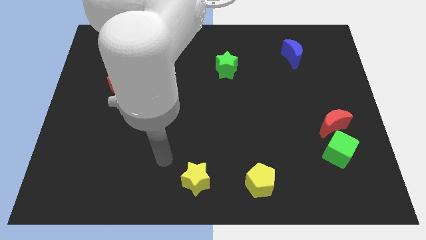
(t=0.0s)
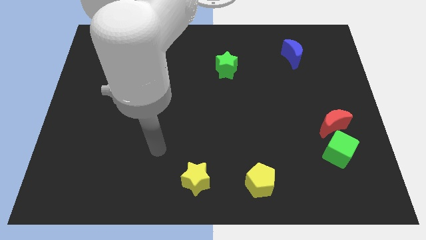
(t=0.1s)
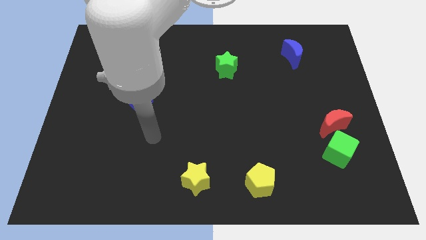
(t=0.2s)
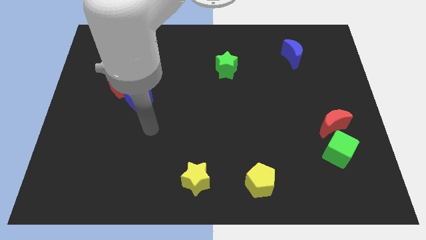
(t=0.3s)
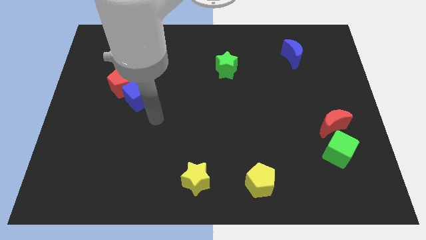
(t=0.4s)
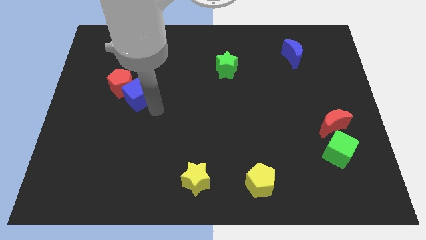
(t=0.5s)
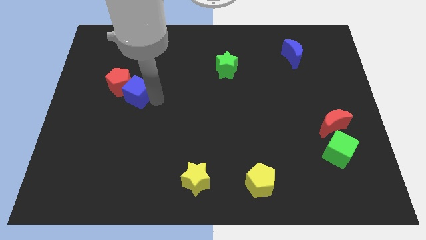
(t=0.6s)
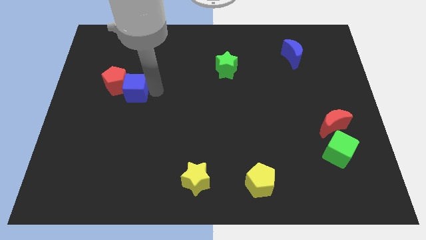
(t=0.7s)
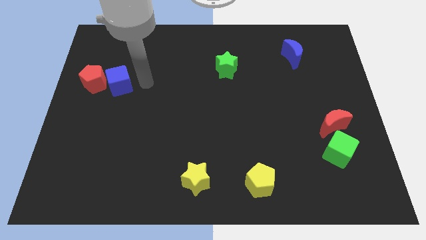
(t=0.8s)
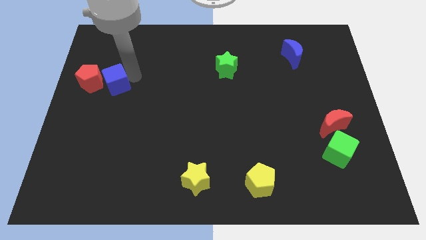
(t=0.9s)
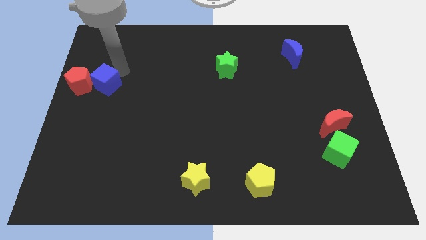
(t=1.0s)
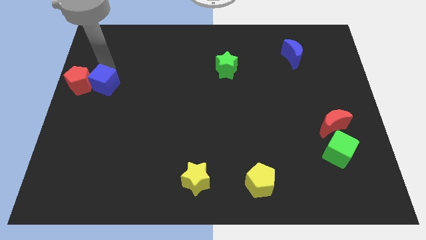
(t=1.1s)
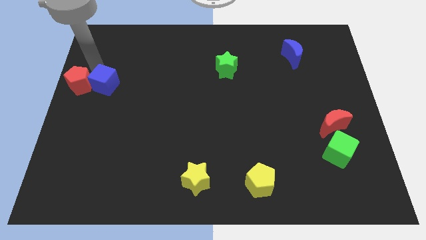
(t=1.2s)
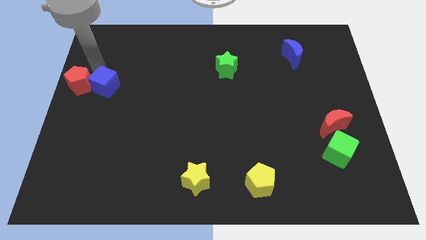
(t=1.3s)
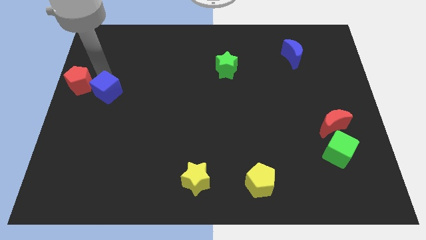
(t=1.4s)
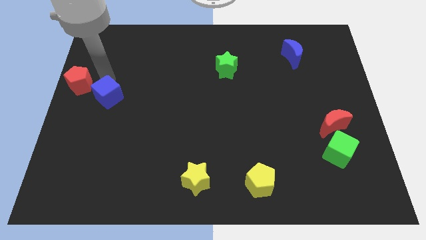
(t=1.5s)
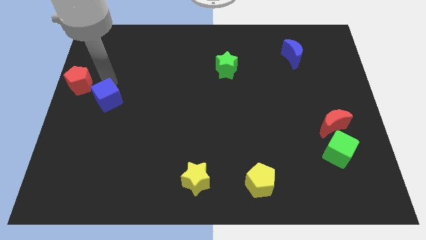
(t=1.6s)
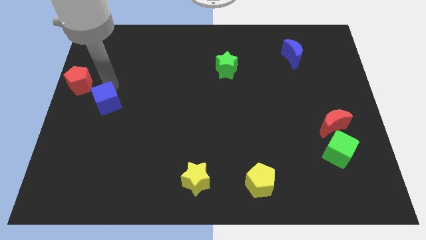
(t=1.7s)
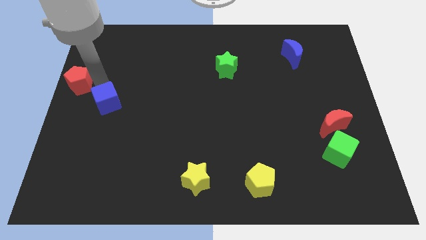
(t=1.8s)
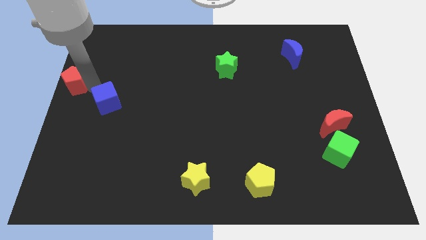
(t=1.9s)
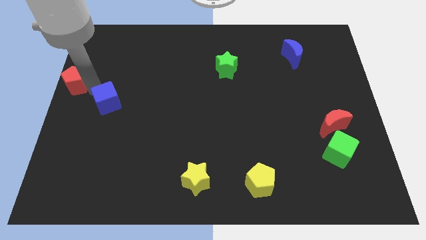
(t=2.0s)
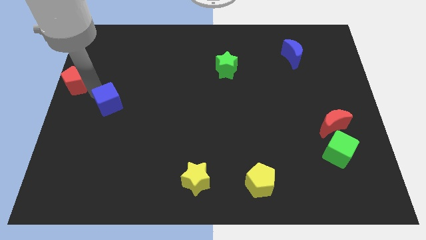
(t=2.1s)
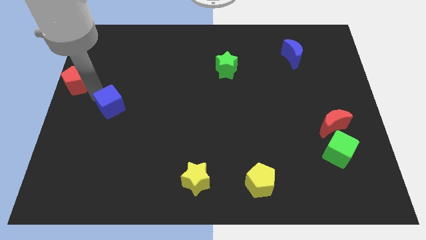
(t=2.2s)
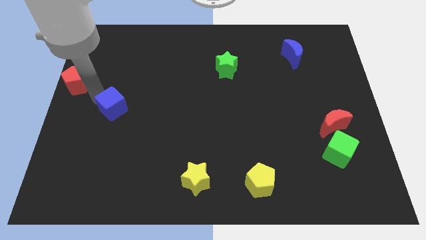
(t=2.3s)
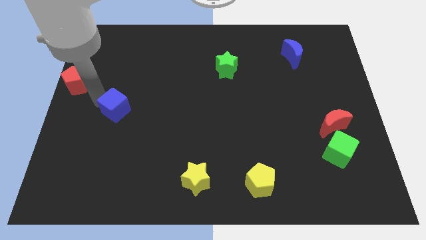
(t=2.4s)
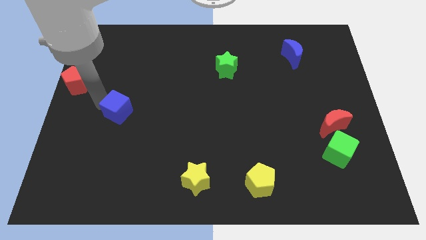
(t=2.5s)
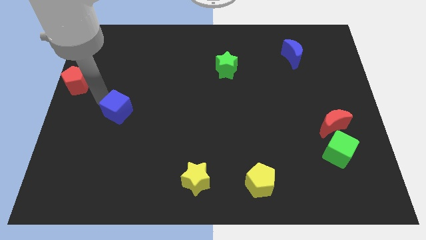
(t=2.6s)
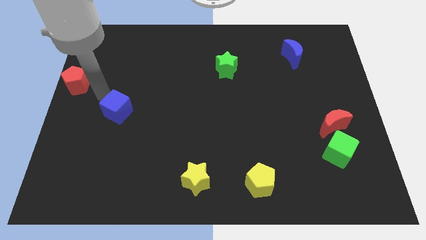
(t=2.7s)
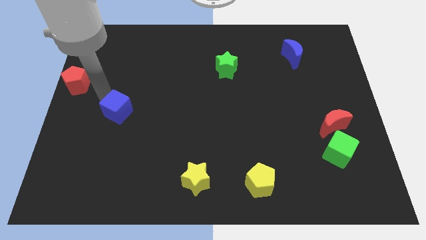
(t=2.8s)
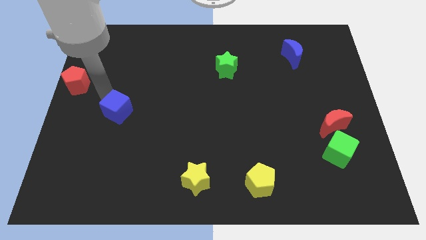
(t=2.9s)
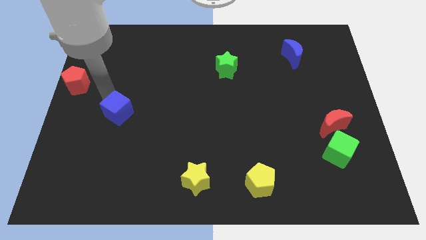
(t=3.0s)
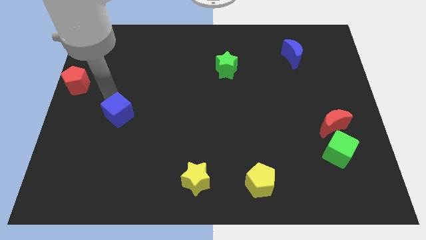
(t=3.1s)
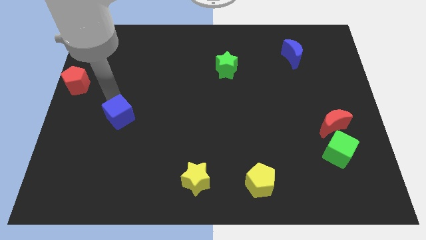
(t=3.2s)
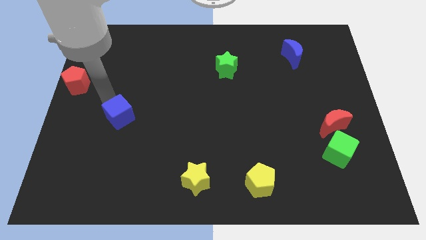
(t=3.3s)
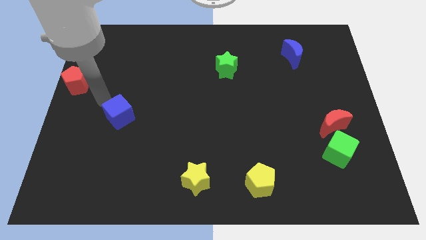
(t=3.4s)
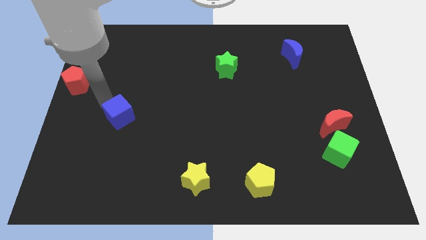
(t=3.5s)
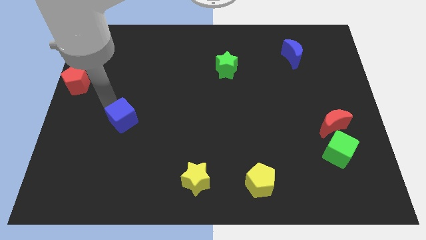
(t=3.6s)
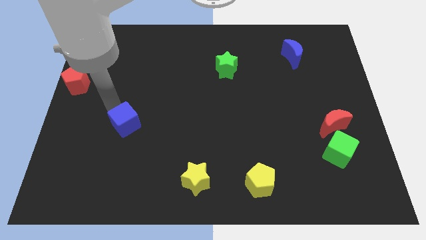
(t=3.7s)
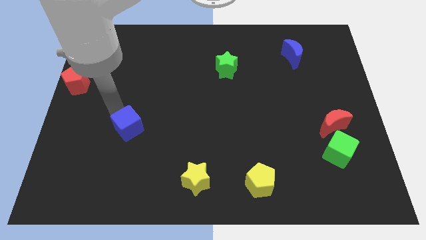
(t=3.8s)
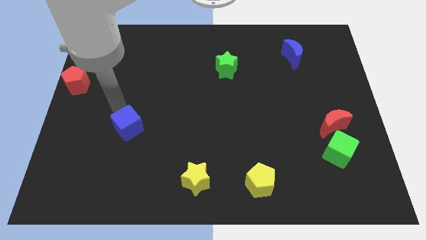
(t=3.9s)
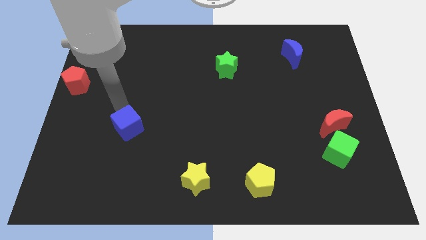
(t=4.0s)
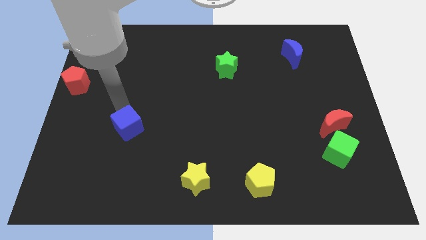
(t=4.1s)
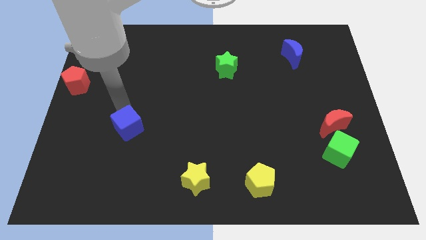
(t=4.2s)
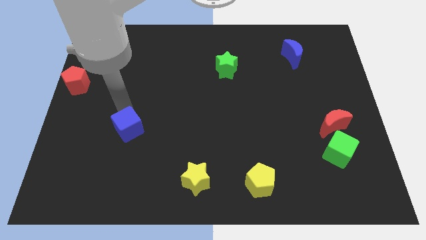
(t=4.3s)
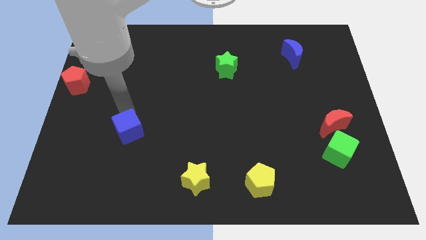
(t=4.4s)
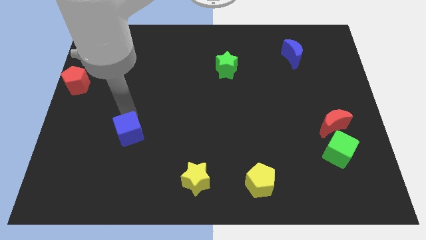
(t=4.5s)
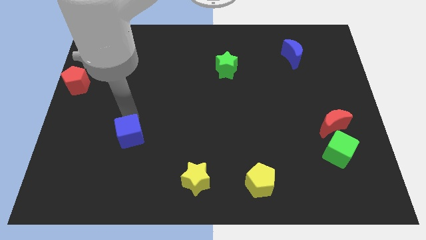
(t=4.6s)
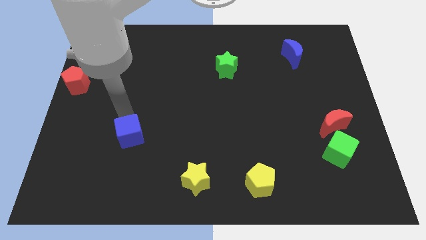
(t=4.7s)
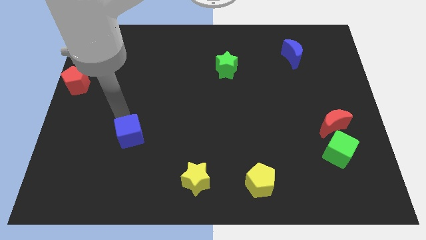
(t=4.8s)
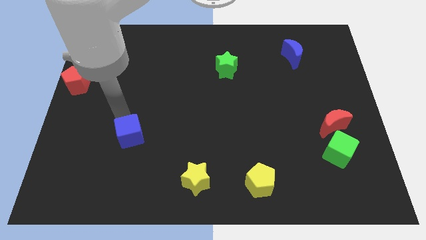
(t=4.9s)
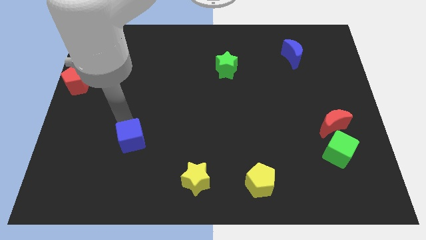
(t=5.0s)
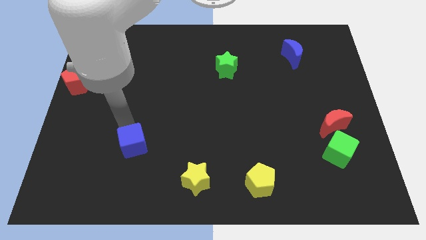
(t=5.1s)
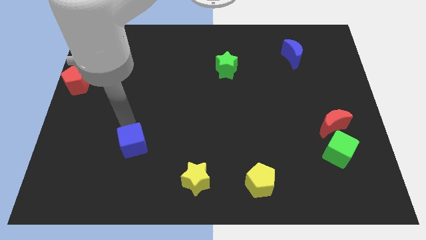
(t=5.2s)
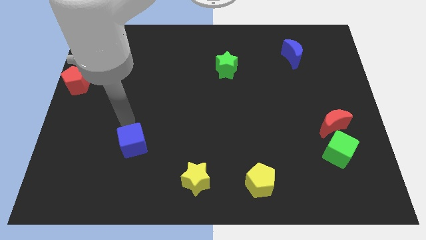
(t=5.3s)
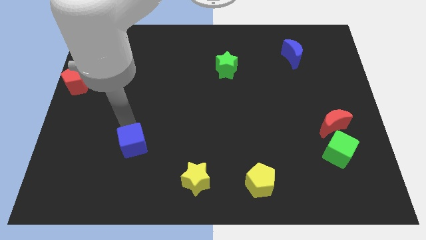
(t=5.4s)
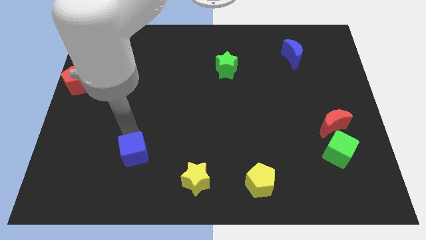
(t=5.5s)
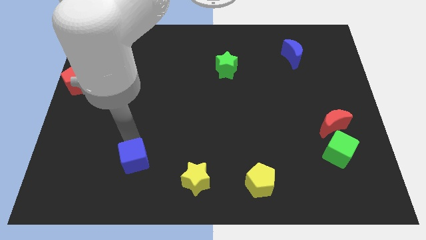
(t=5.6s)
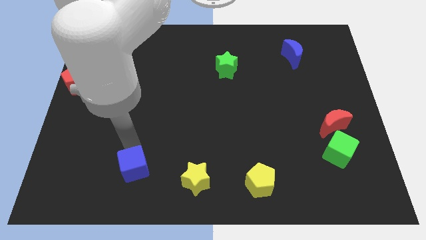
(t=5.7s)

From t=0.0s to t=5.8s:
move the blue cube left of the yellow star

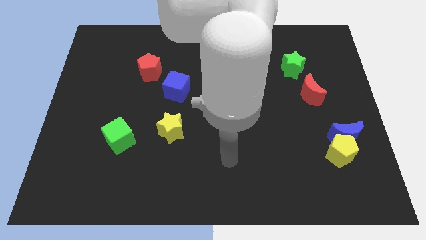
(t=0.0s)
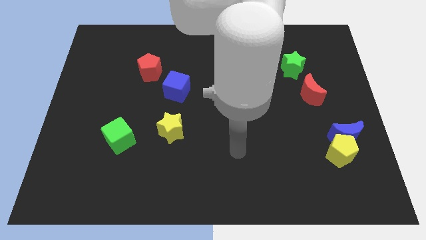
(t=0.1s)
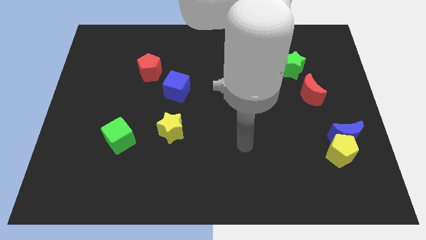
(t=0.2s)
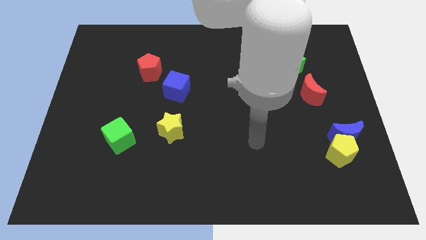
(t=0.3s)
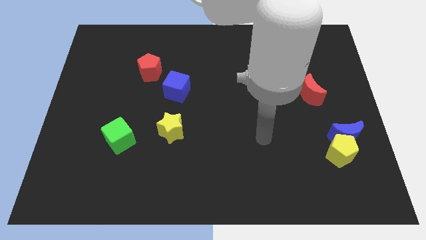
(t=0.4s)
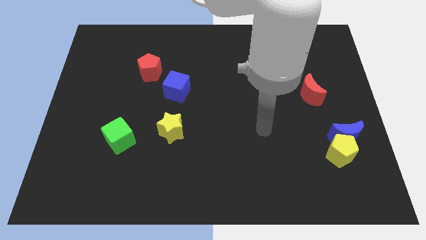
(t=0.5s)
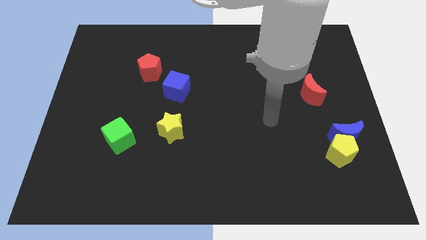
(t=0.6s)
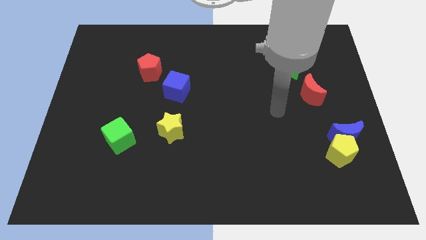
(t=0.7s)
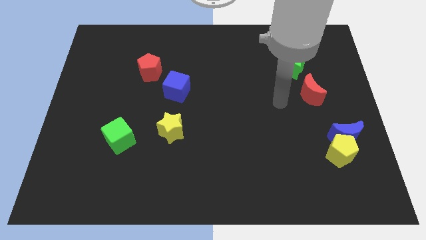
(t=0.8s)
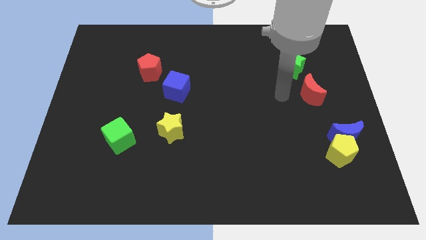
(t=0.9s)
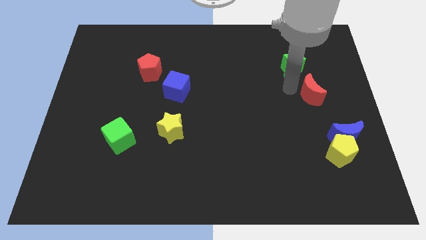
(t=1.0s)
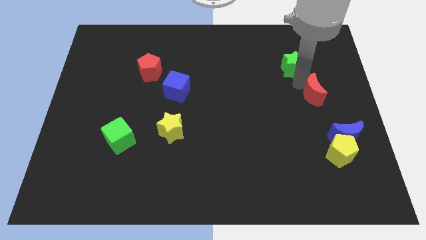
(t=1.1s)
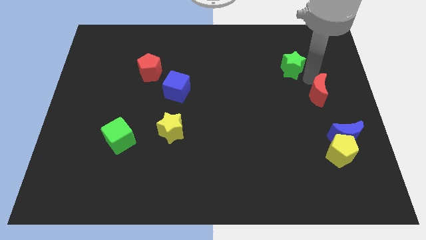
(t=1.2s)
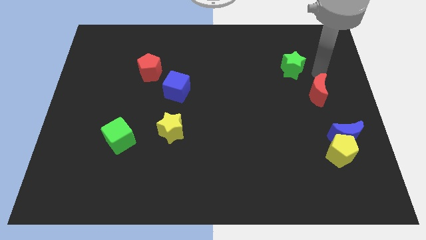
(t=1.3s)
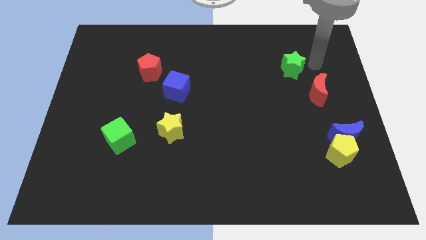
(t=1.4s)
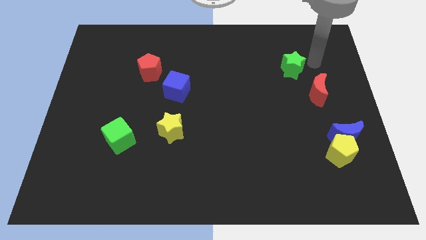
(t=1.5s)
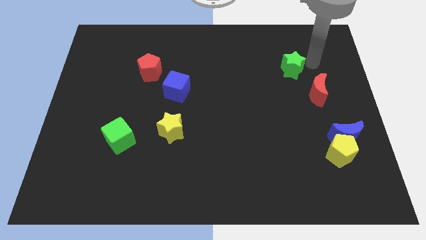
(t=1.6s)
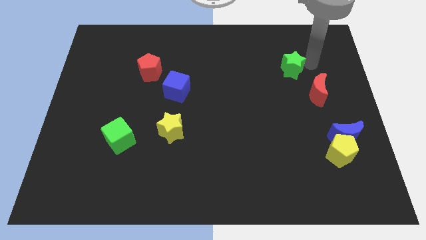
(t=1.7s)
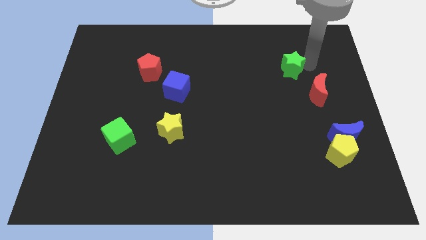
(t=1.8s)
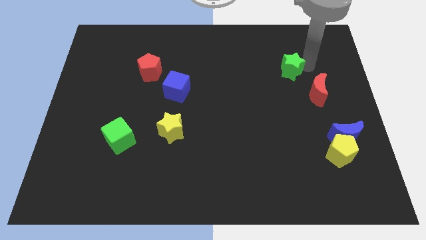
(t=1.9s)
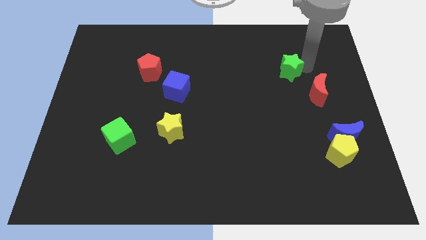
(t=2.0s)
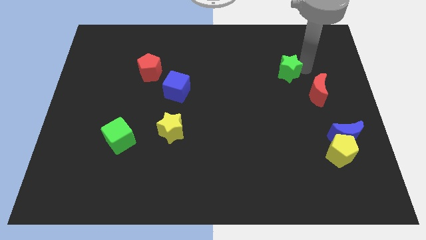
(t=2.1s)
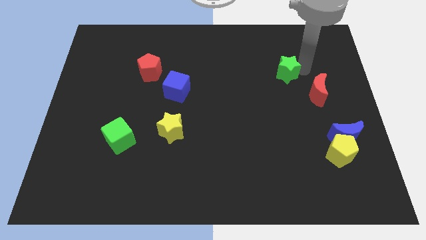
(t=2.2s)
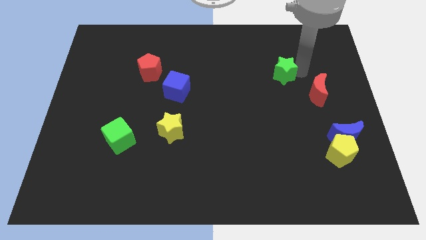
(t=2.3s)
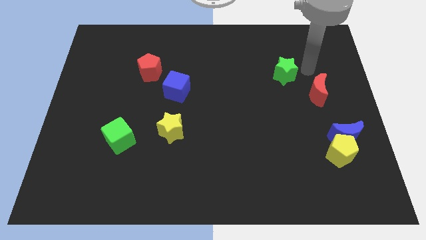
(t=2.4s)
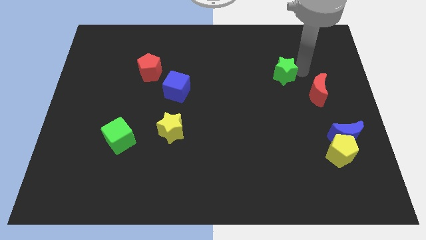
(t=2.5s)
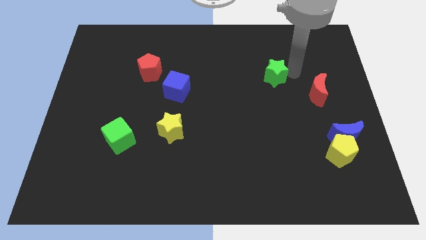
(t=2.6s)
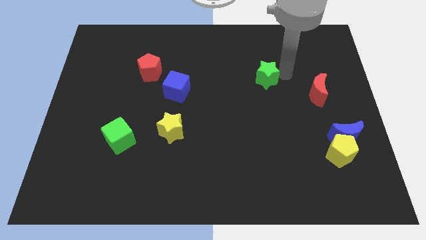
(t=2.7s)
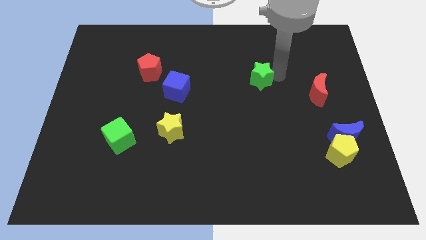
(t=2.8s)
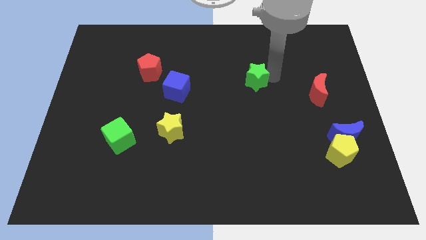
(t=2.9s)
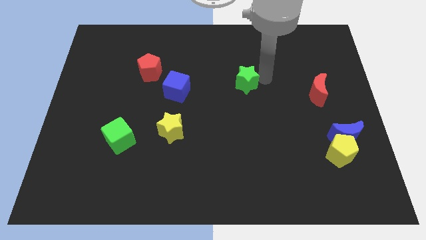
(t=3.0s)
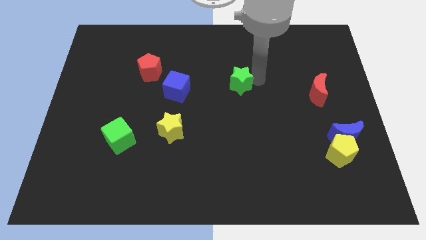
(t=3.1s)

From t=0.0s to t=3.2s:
put the green star just right of the blue cube
